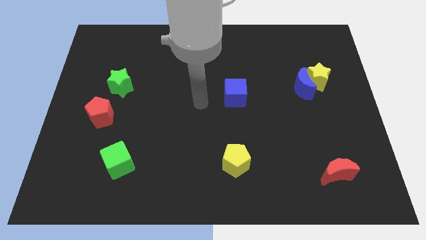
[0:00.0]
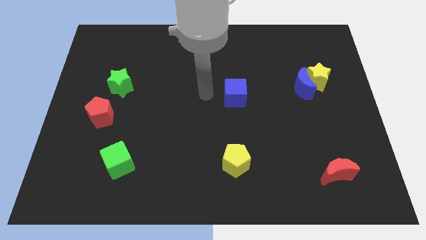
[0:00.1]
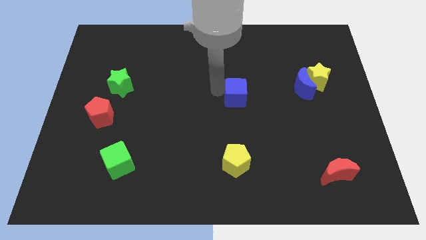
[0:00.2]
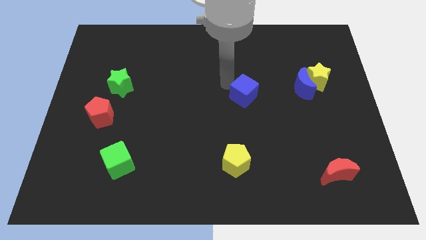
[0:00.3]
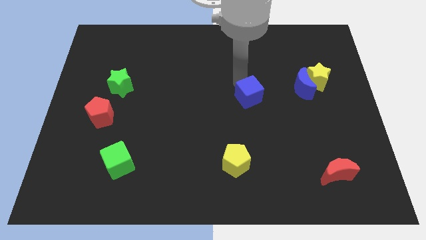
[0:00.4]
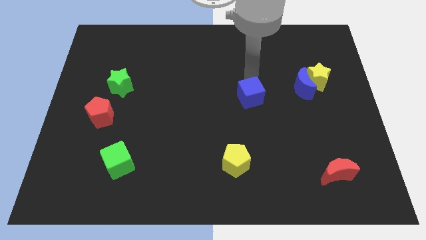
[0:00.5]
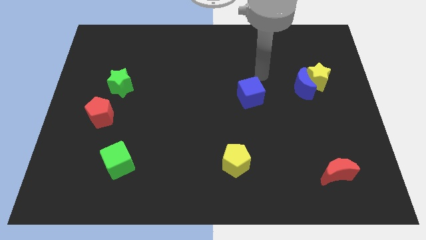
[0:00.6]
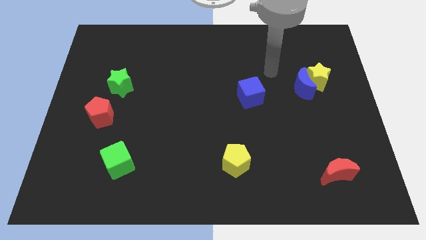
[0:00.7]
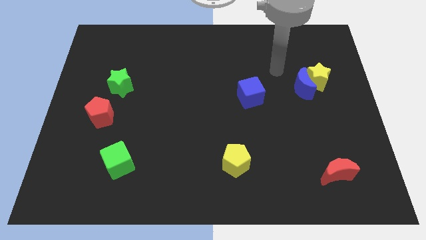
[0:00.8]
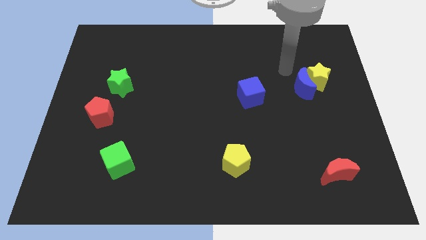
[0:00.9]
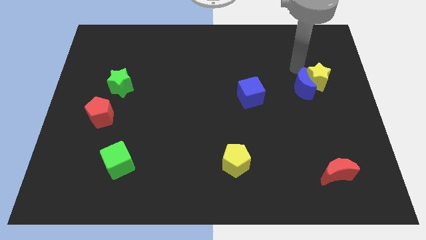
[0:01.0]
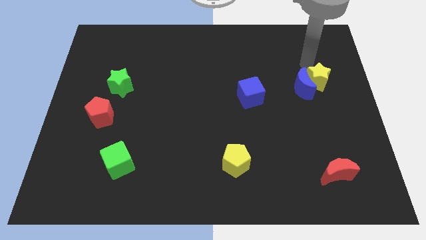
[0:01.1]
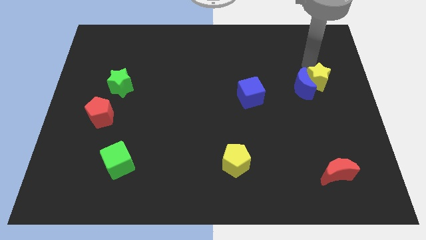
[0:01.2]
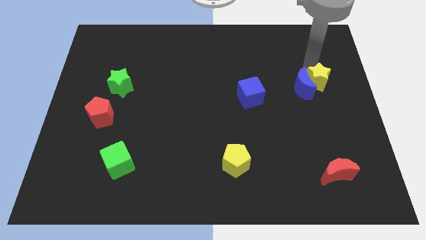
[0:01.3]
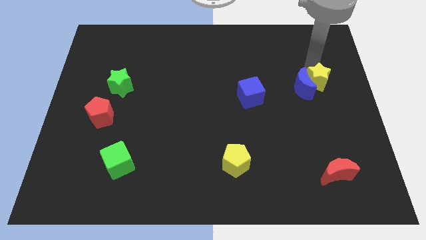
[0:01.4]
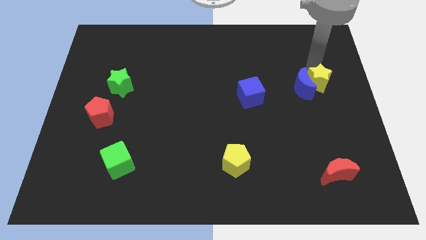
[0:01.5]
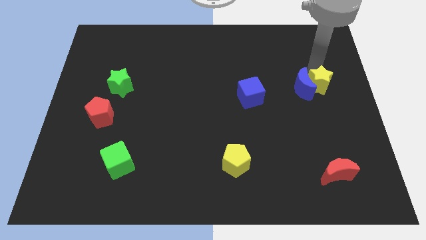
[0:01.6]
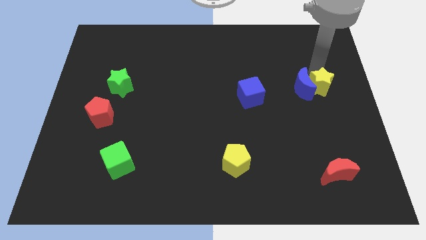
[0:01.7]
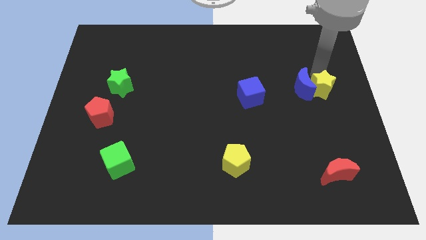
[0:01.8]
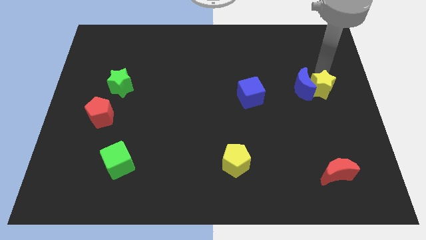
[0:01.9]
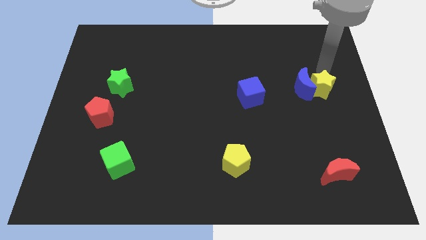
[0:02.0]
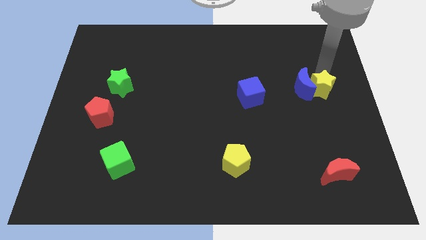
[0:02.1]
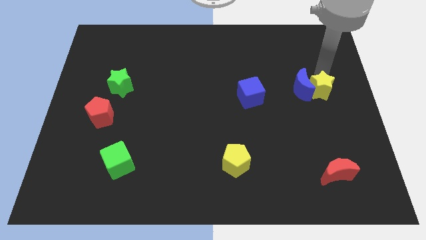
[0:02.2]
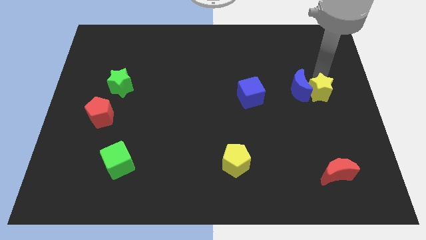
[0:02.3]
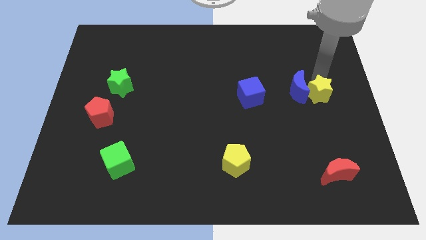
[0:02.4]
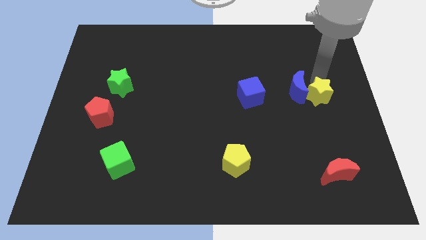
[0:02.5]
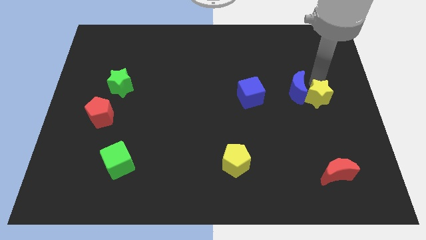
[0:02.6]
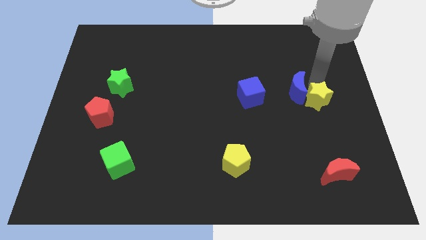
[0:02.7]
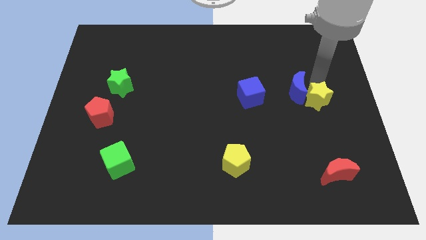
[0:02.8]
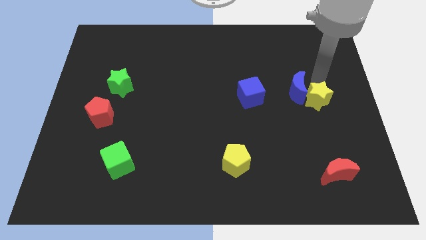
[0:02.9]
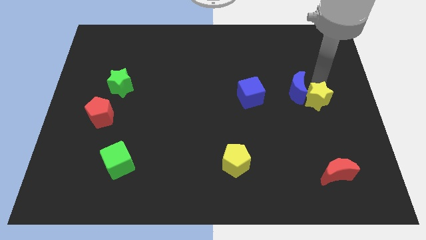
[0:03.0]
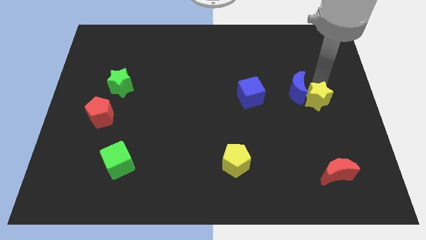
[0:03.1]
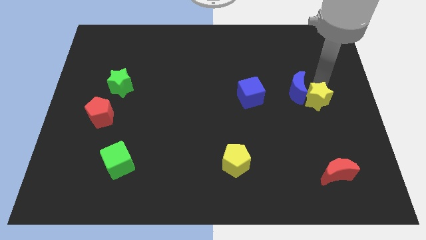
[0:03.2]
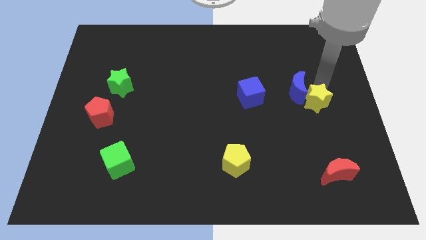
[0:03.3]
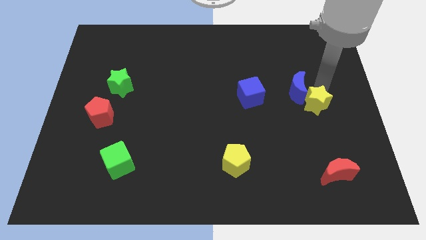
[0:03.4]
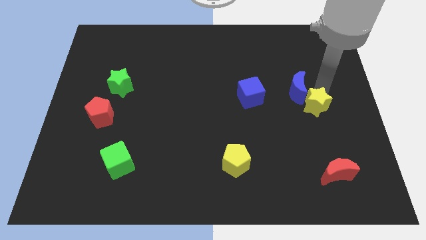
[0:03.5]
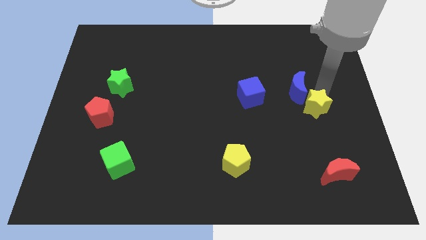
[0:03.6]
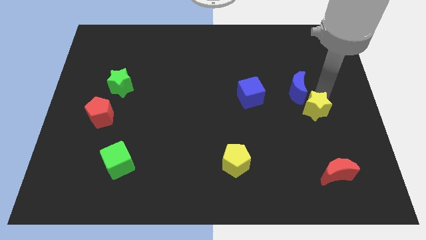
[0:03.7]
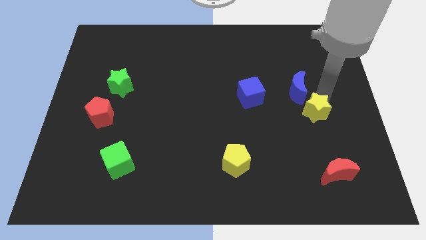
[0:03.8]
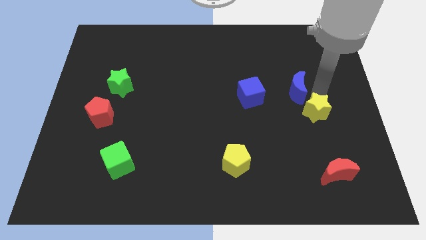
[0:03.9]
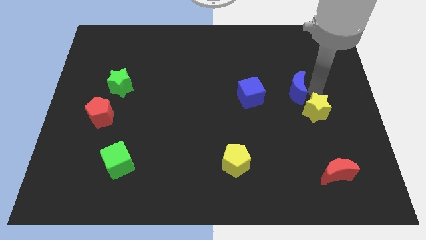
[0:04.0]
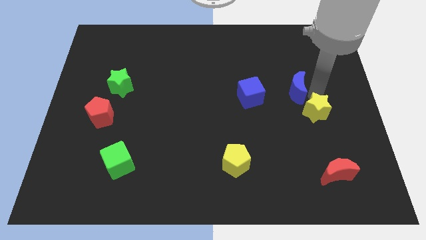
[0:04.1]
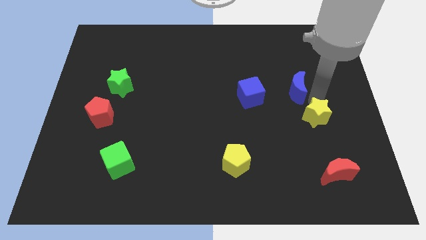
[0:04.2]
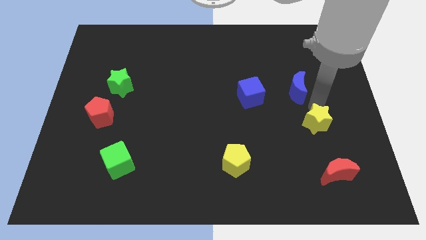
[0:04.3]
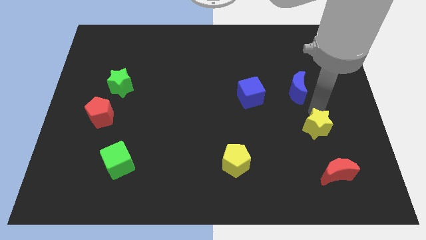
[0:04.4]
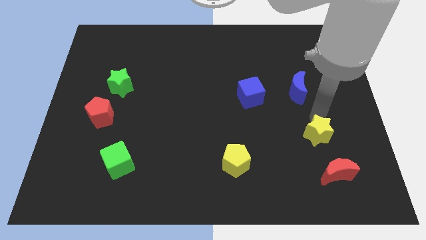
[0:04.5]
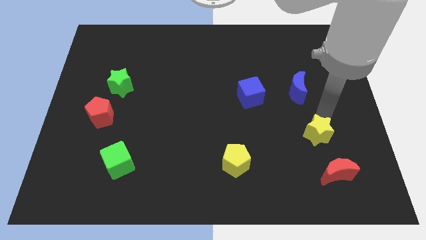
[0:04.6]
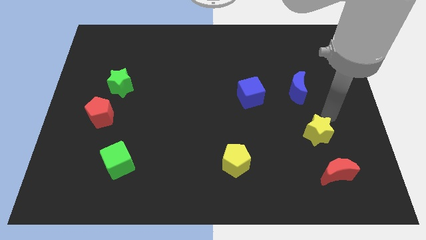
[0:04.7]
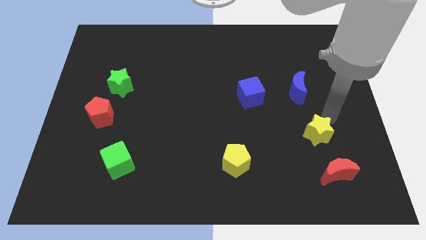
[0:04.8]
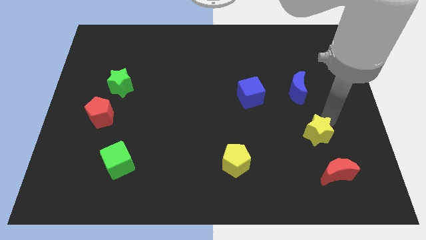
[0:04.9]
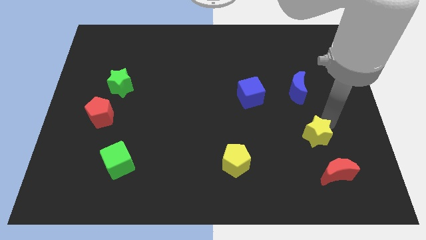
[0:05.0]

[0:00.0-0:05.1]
push the yellow star to the top left of the red moon

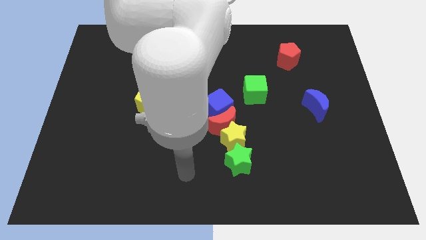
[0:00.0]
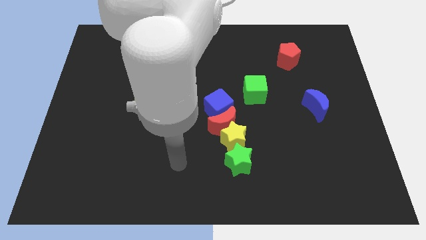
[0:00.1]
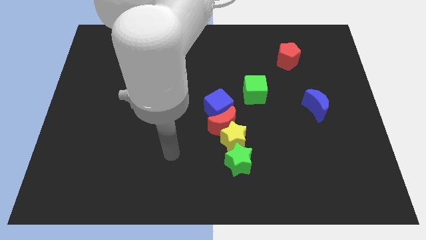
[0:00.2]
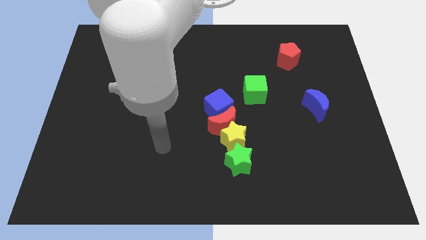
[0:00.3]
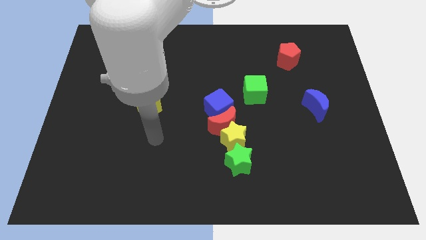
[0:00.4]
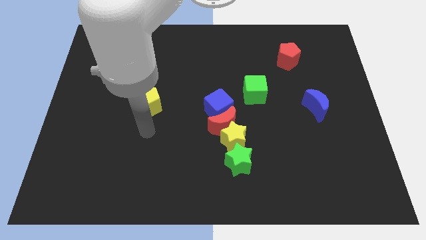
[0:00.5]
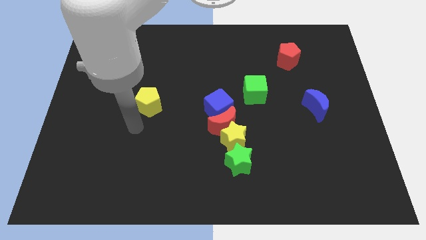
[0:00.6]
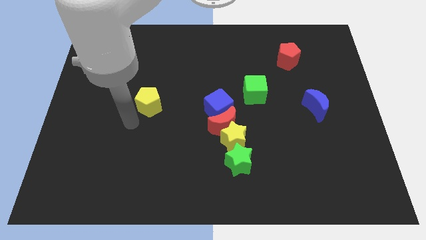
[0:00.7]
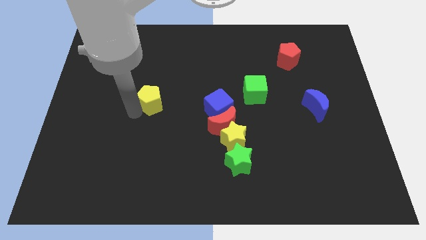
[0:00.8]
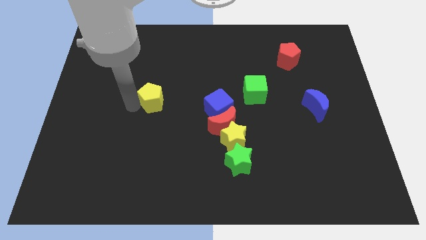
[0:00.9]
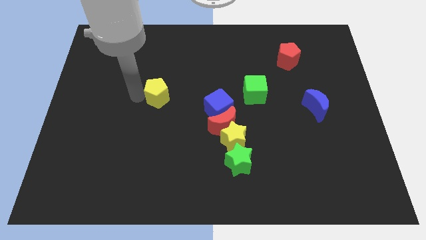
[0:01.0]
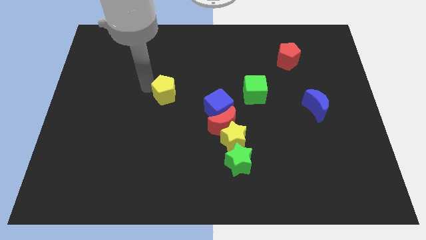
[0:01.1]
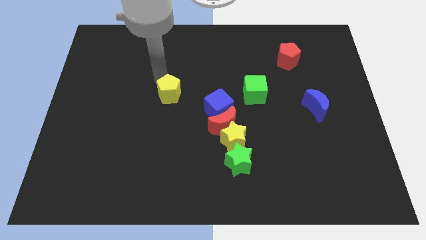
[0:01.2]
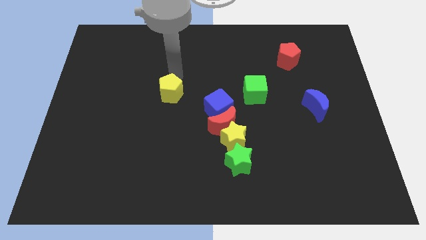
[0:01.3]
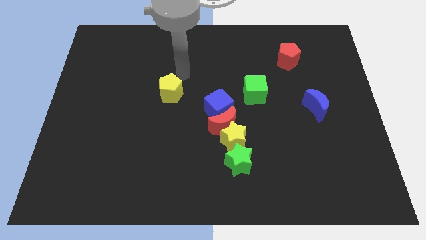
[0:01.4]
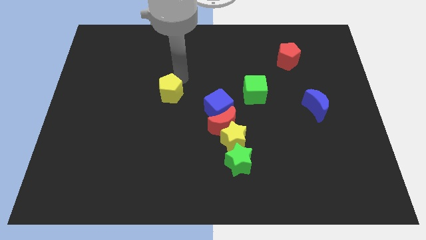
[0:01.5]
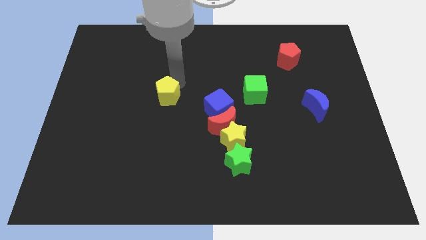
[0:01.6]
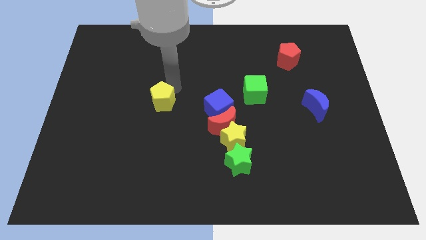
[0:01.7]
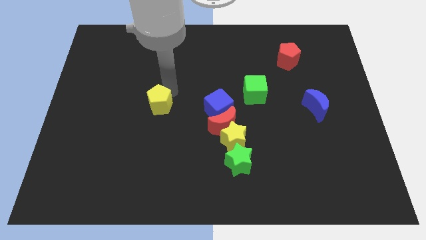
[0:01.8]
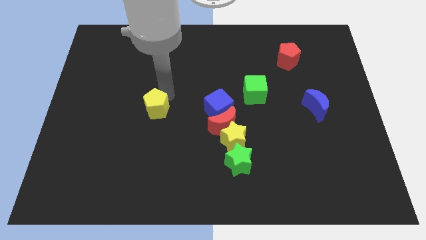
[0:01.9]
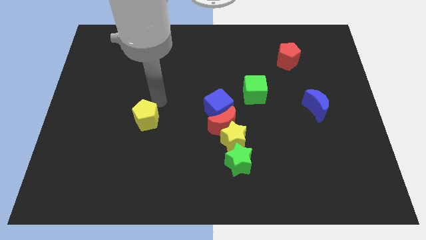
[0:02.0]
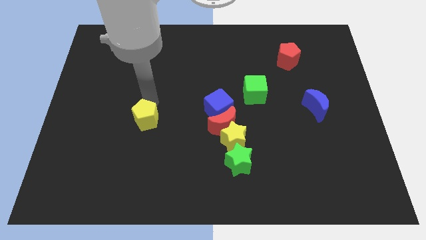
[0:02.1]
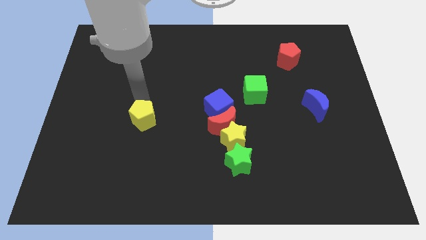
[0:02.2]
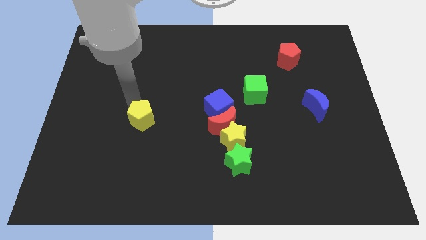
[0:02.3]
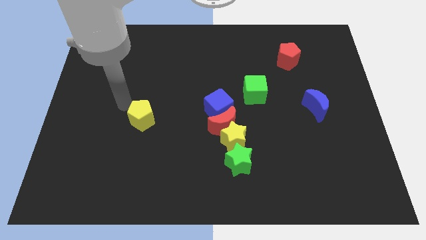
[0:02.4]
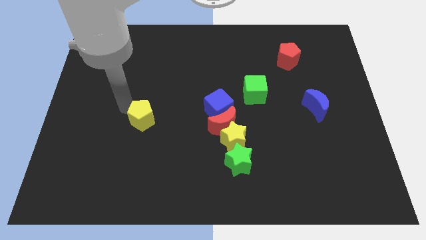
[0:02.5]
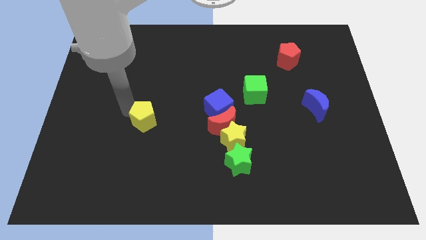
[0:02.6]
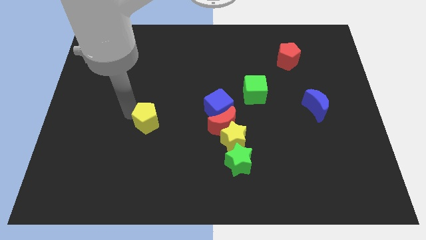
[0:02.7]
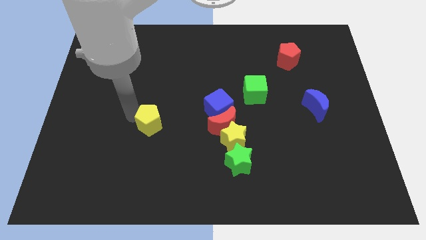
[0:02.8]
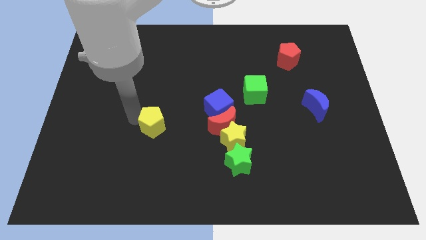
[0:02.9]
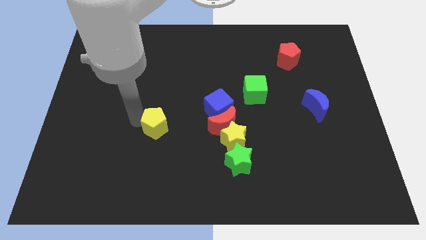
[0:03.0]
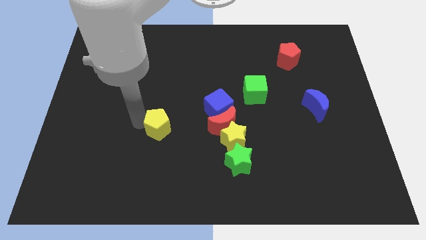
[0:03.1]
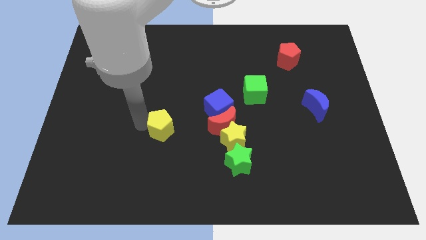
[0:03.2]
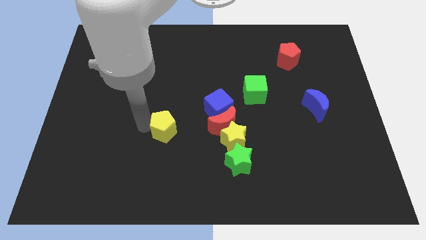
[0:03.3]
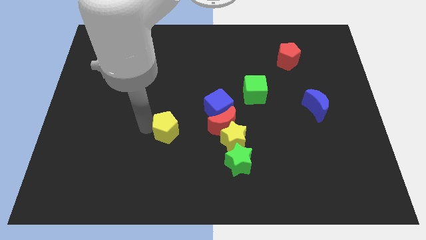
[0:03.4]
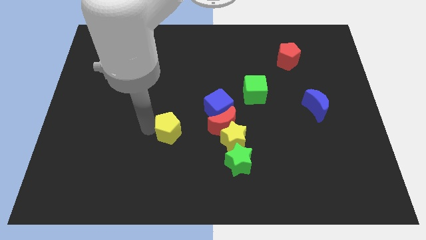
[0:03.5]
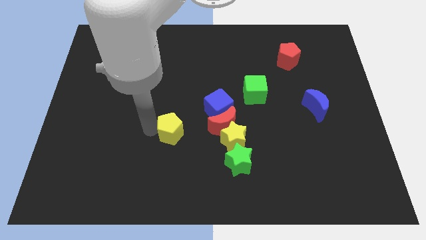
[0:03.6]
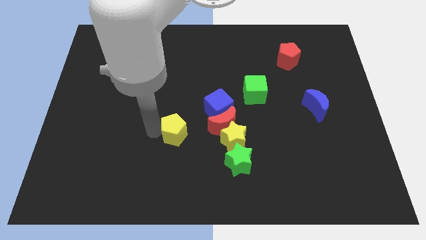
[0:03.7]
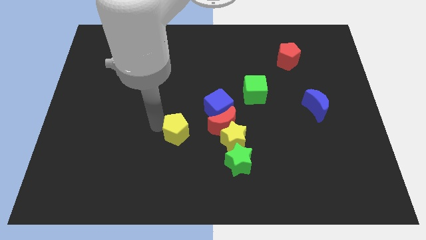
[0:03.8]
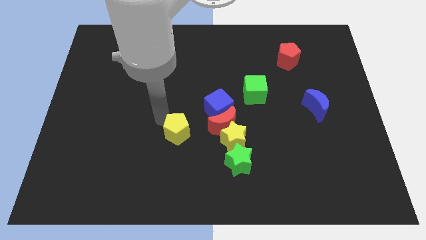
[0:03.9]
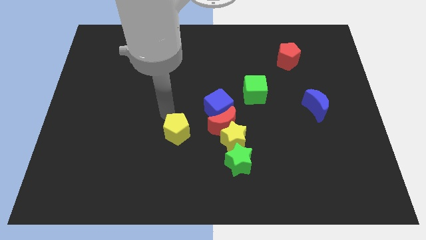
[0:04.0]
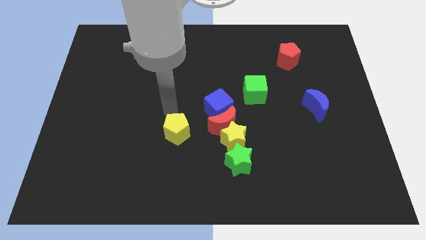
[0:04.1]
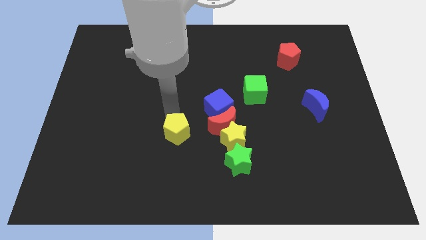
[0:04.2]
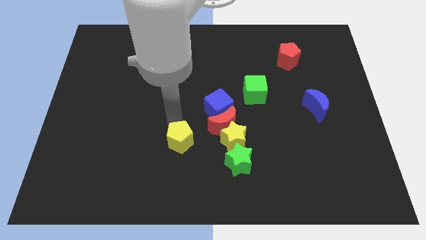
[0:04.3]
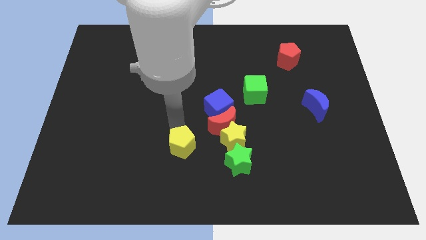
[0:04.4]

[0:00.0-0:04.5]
move the yellow pentagon to the left side of the green star
